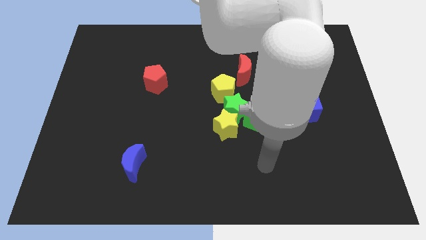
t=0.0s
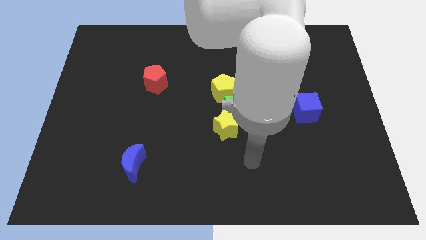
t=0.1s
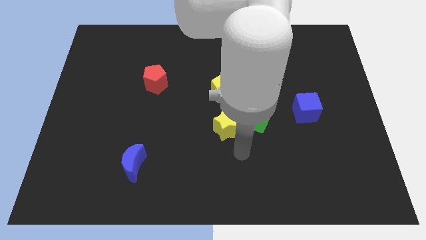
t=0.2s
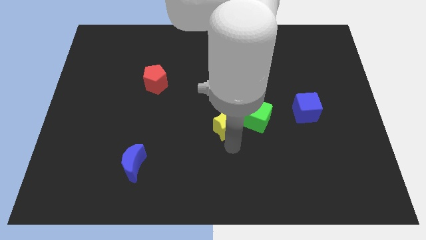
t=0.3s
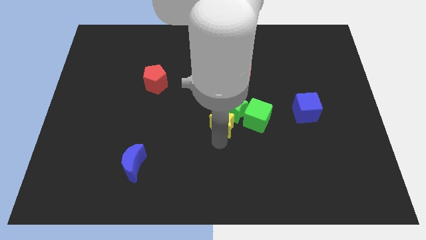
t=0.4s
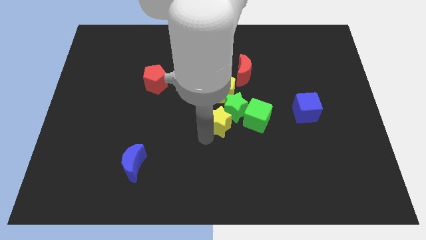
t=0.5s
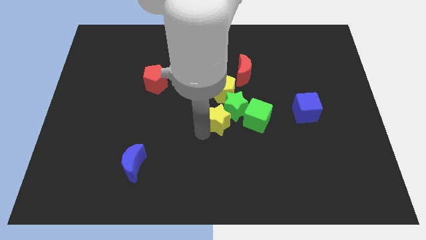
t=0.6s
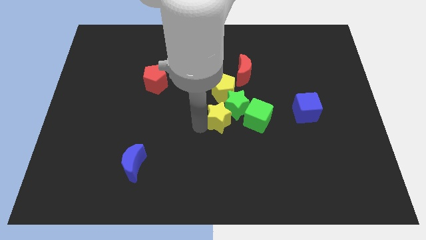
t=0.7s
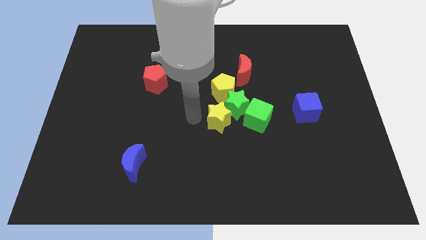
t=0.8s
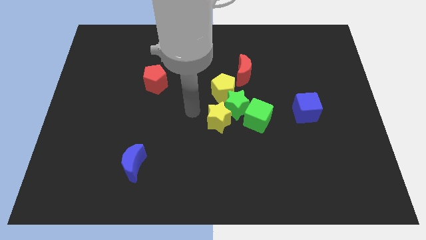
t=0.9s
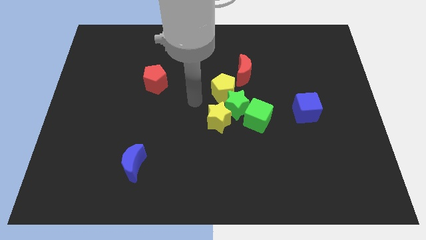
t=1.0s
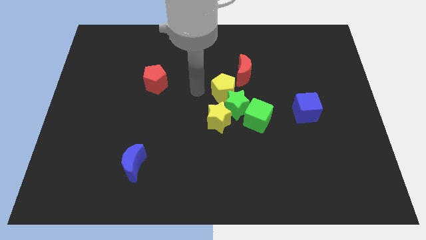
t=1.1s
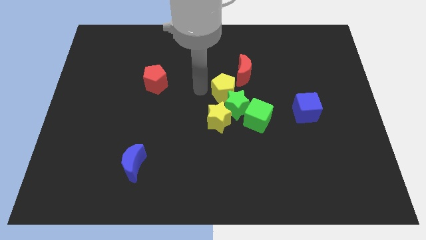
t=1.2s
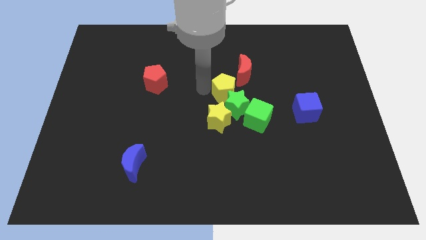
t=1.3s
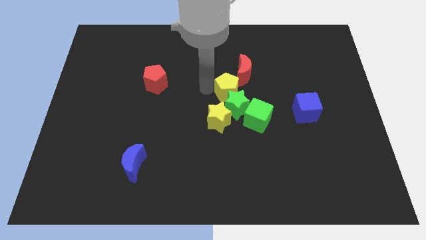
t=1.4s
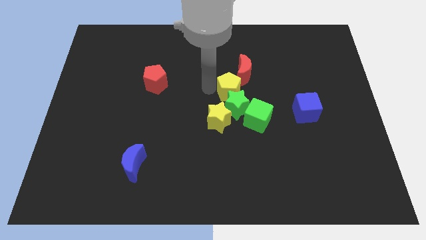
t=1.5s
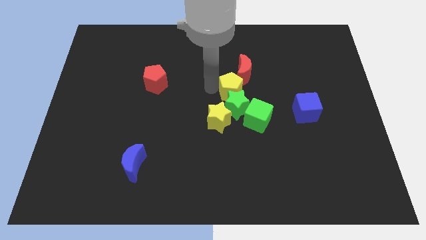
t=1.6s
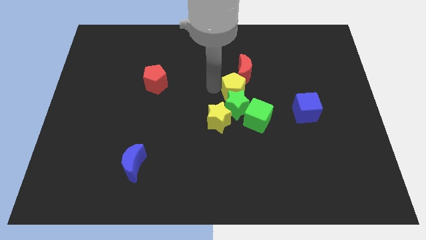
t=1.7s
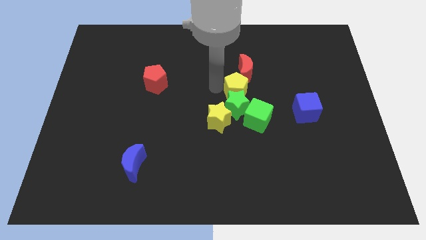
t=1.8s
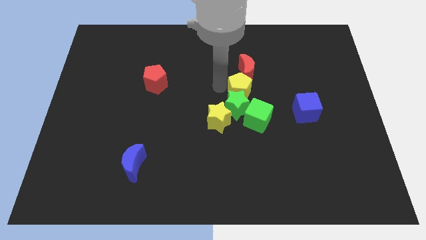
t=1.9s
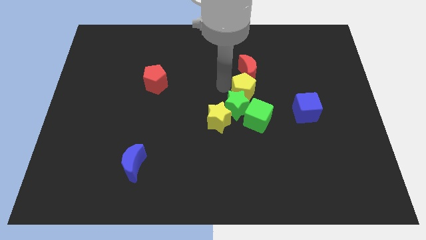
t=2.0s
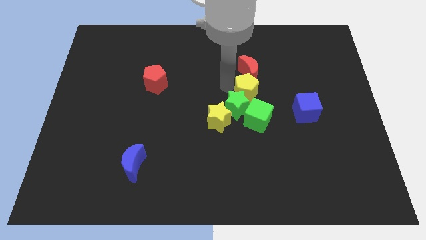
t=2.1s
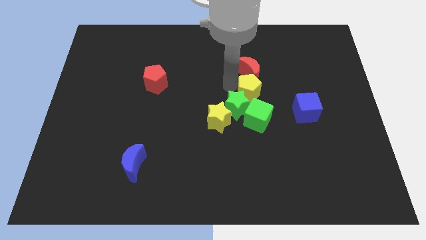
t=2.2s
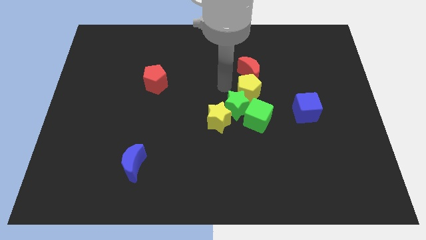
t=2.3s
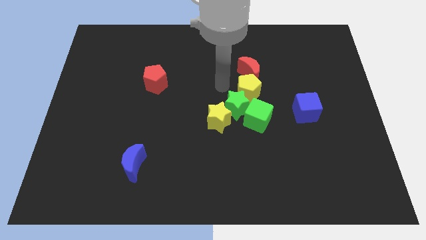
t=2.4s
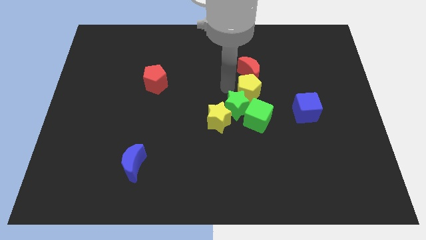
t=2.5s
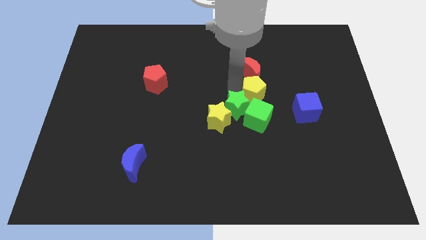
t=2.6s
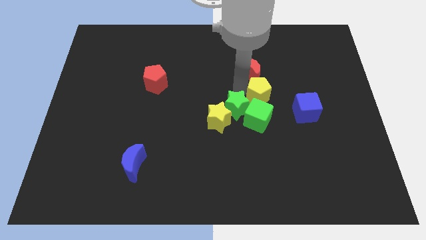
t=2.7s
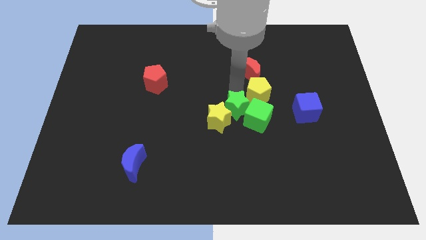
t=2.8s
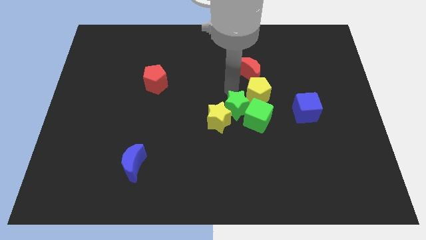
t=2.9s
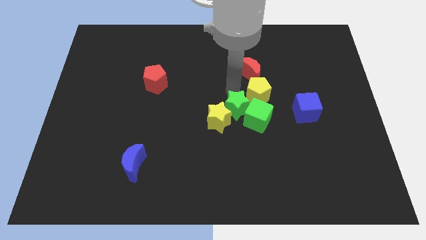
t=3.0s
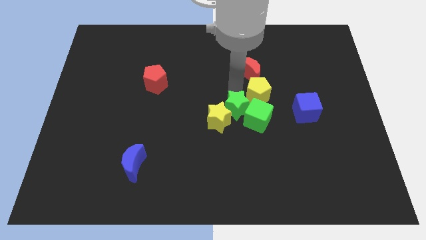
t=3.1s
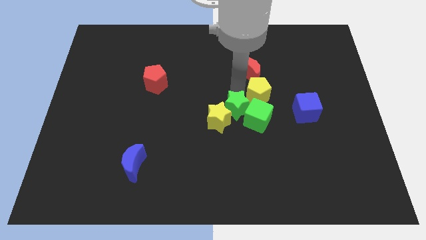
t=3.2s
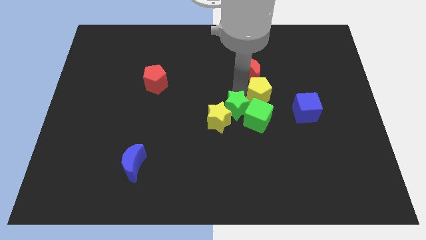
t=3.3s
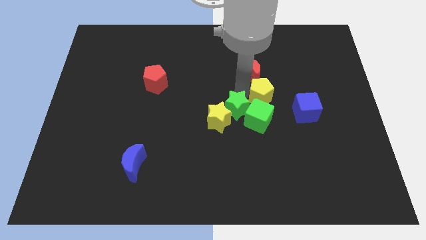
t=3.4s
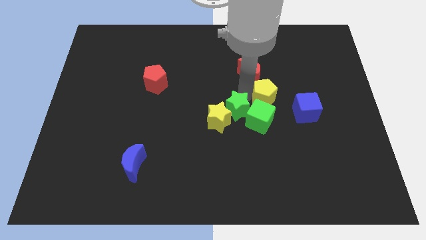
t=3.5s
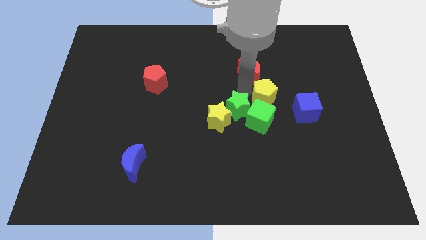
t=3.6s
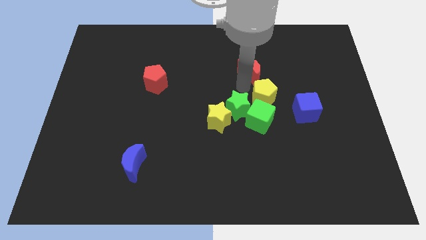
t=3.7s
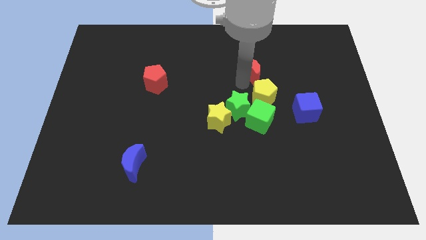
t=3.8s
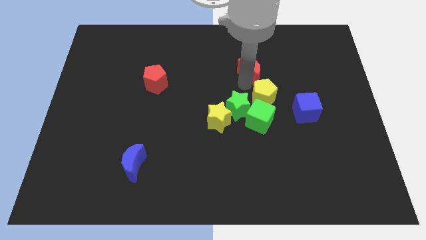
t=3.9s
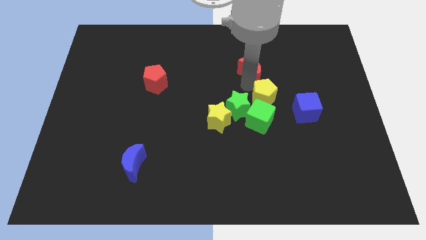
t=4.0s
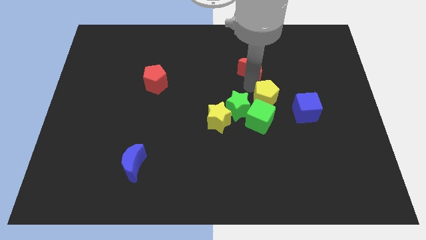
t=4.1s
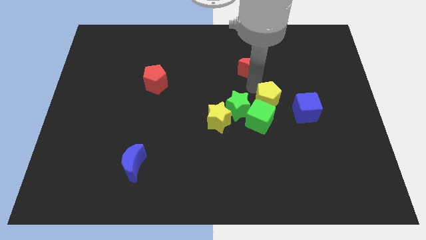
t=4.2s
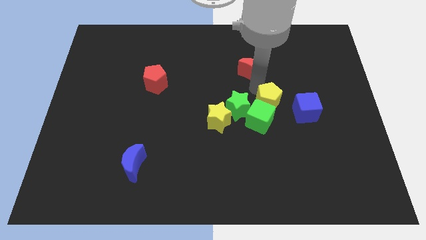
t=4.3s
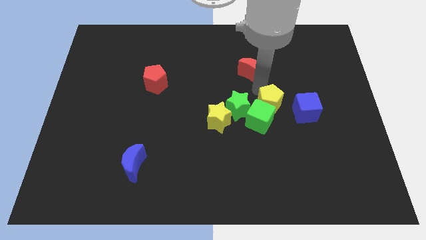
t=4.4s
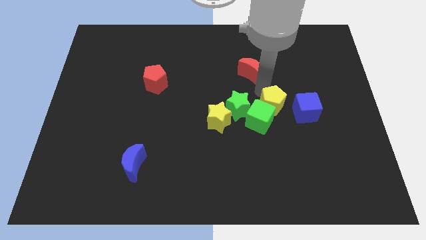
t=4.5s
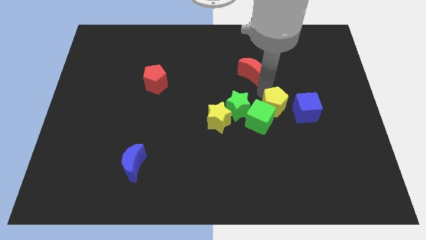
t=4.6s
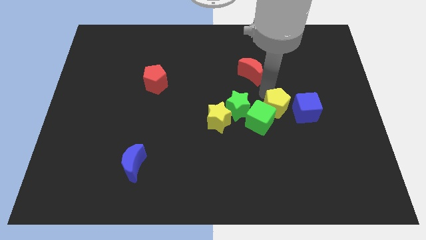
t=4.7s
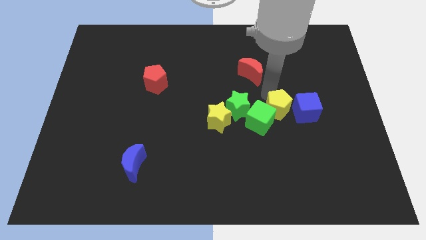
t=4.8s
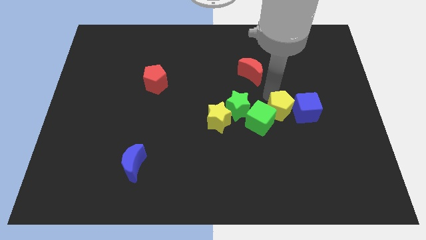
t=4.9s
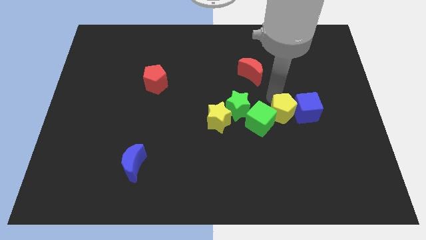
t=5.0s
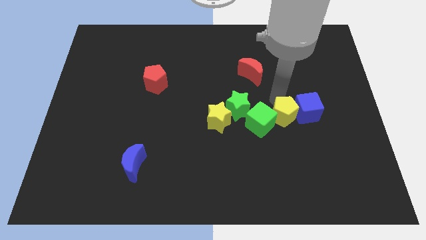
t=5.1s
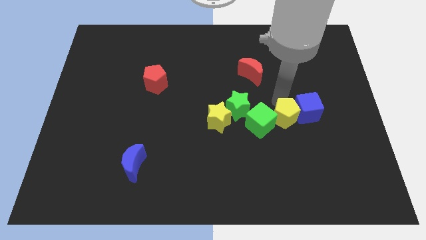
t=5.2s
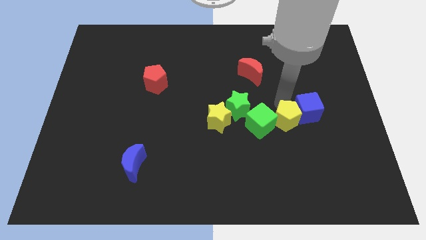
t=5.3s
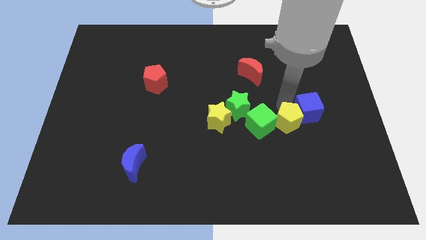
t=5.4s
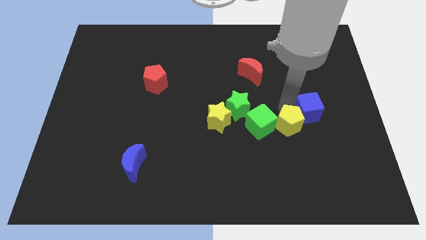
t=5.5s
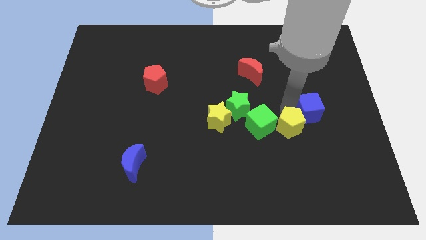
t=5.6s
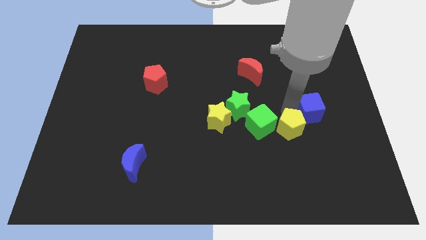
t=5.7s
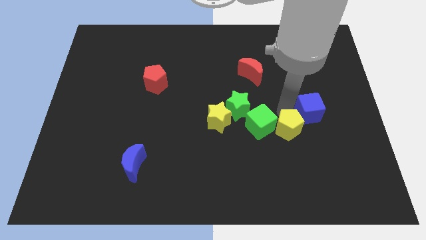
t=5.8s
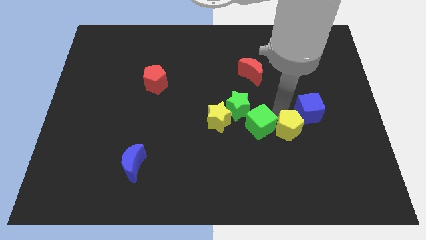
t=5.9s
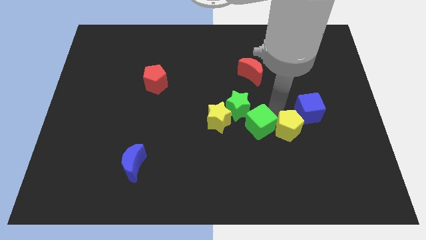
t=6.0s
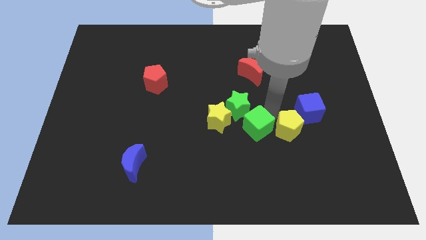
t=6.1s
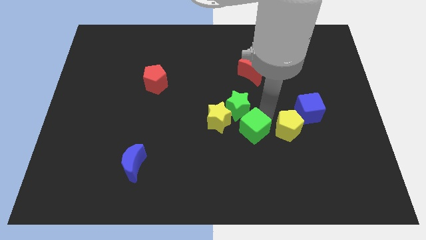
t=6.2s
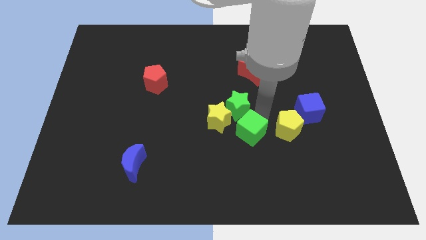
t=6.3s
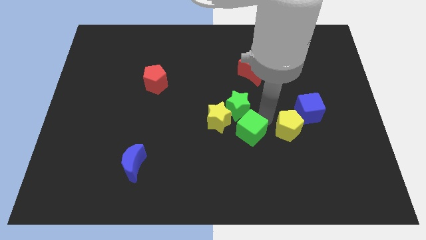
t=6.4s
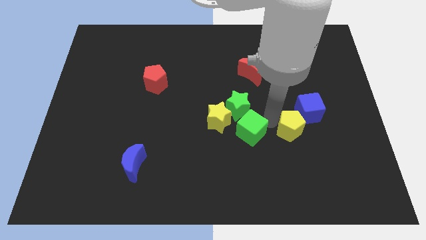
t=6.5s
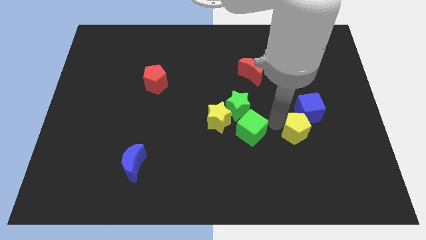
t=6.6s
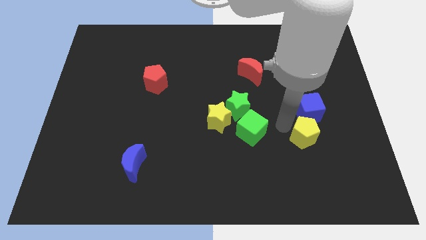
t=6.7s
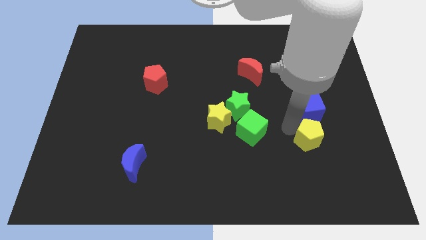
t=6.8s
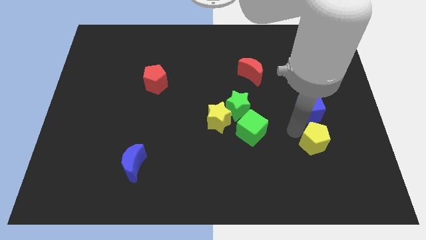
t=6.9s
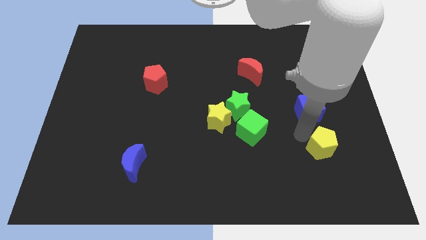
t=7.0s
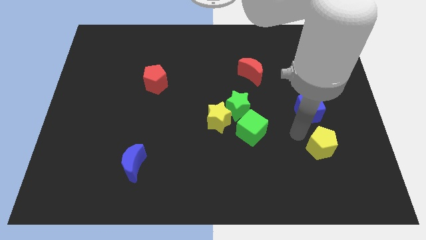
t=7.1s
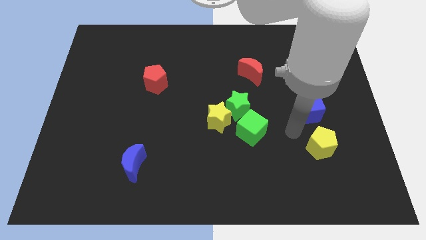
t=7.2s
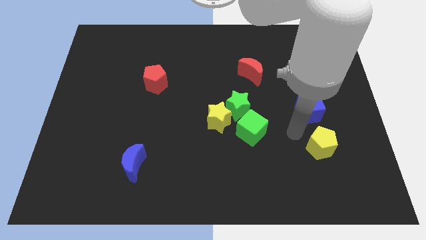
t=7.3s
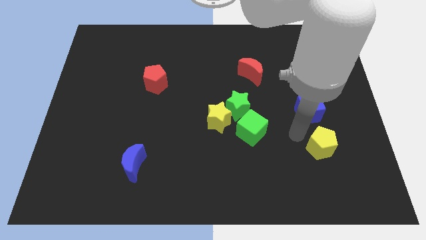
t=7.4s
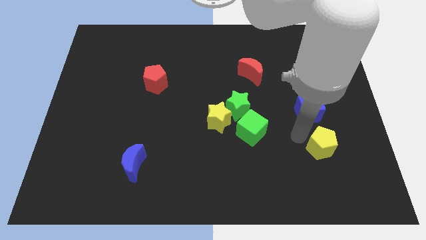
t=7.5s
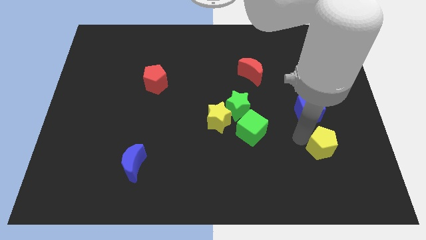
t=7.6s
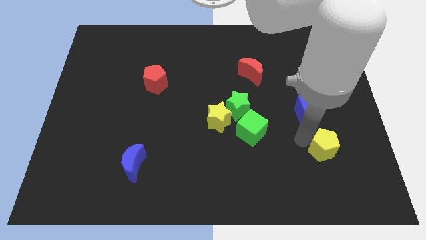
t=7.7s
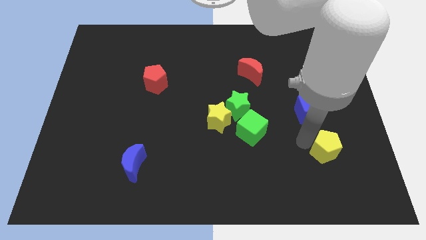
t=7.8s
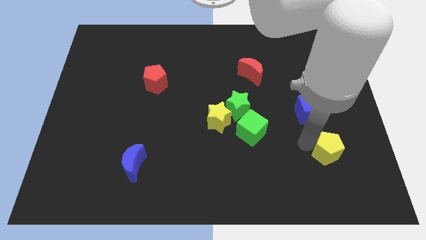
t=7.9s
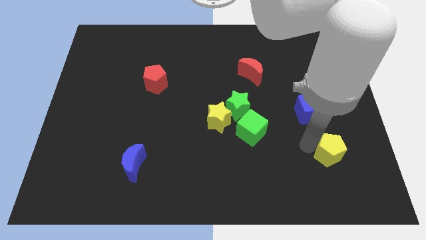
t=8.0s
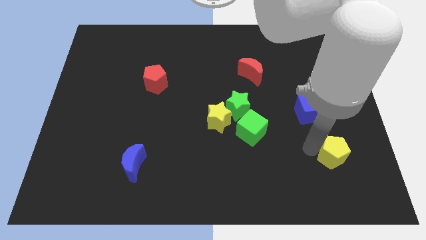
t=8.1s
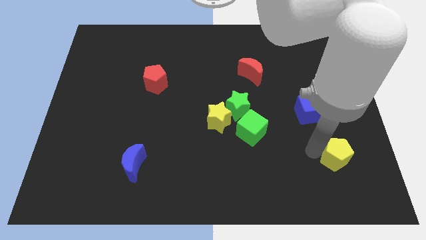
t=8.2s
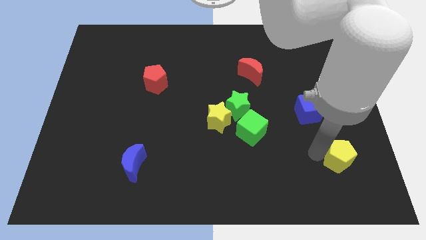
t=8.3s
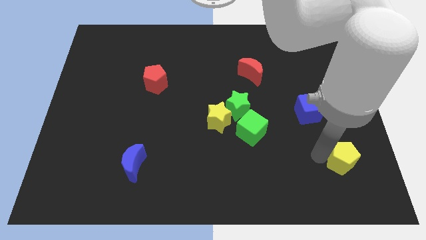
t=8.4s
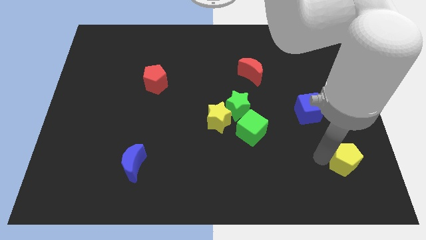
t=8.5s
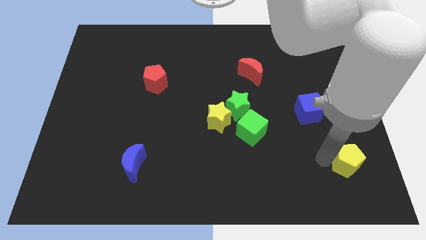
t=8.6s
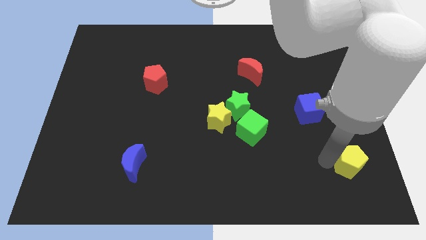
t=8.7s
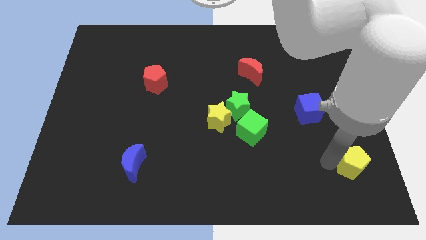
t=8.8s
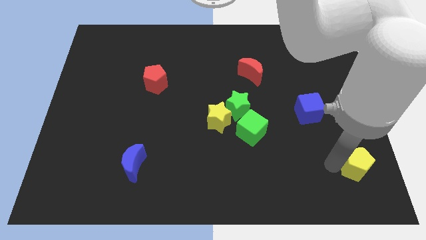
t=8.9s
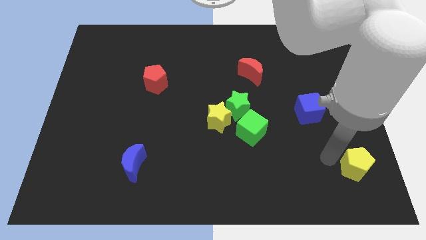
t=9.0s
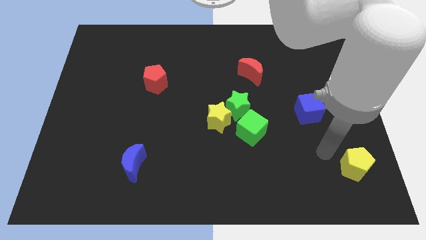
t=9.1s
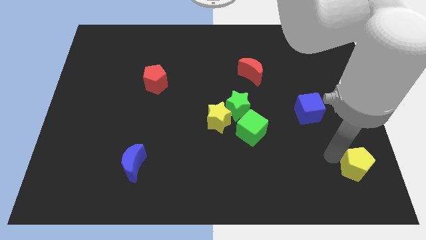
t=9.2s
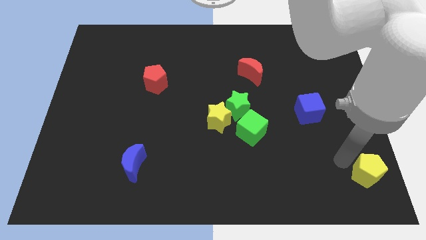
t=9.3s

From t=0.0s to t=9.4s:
put the yellow pentagon to the bottom right of the board
